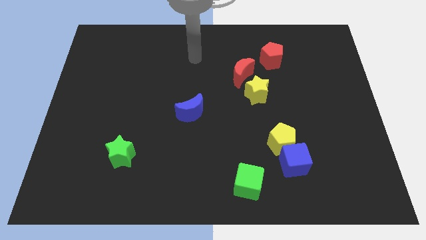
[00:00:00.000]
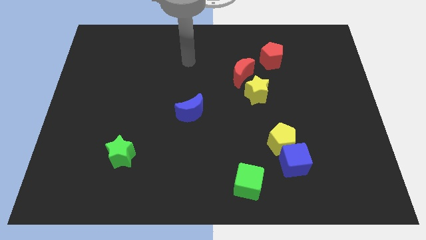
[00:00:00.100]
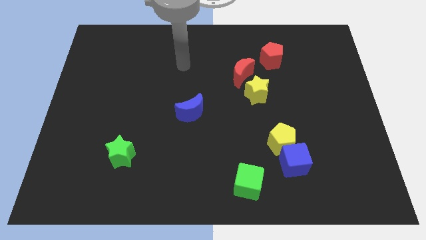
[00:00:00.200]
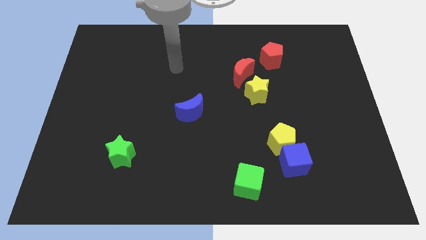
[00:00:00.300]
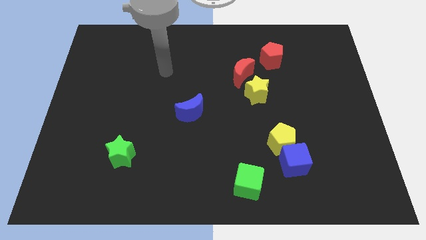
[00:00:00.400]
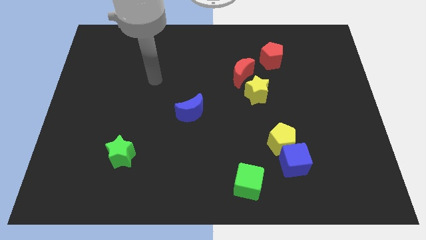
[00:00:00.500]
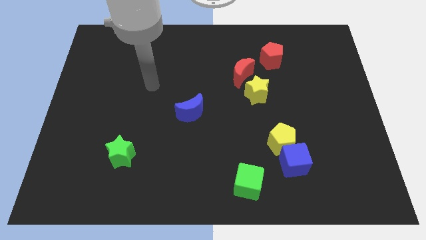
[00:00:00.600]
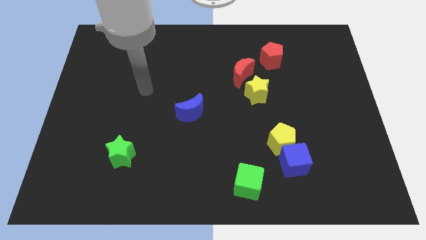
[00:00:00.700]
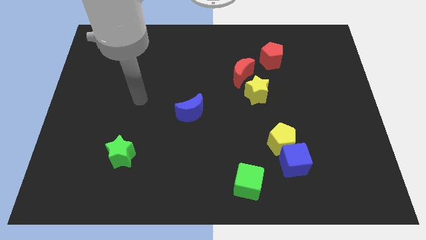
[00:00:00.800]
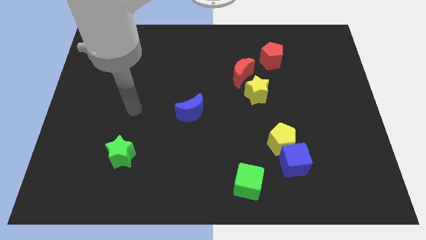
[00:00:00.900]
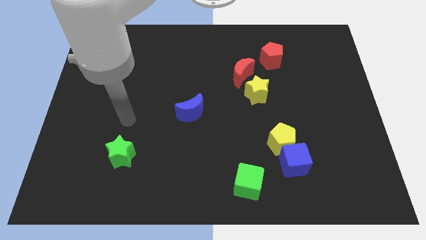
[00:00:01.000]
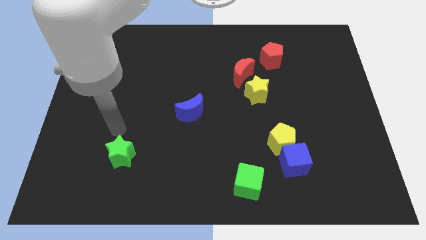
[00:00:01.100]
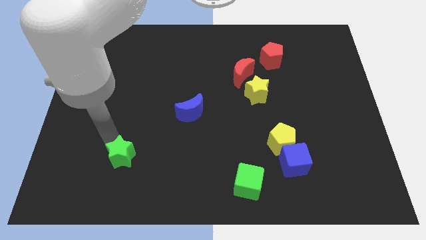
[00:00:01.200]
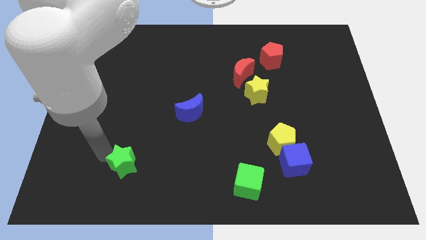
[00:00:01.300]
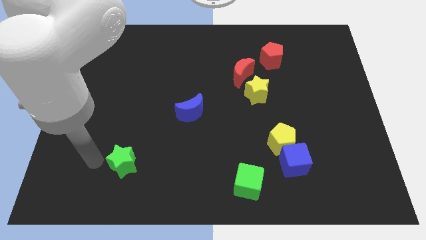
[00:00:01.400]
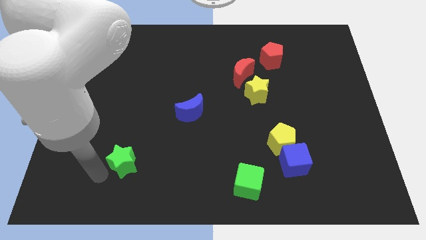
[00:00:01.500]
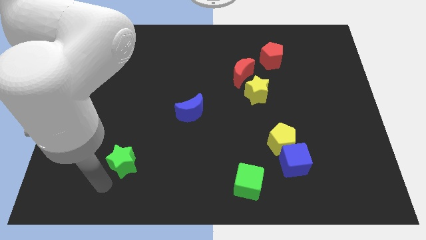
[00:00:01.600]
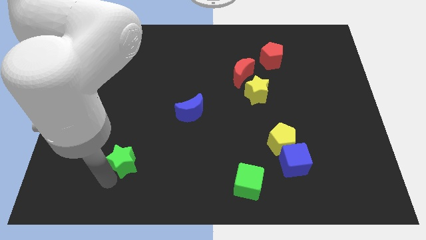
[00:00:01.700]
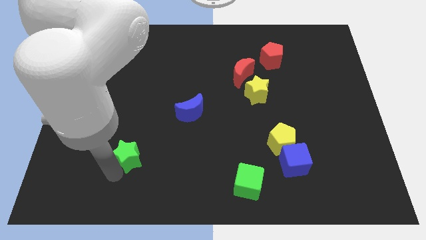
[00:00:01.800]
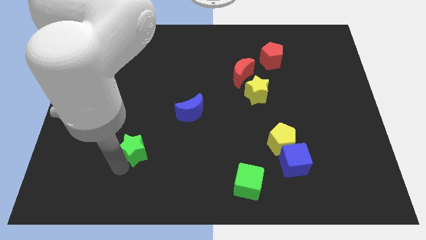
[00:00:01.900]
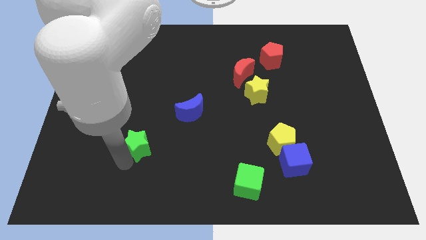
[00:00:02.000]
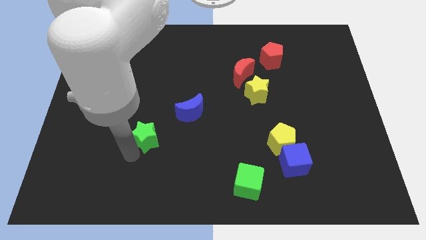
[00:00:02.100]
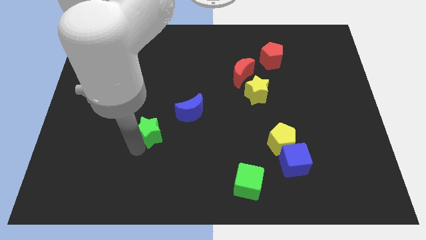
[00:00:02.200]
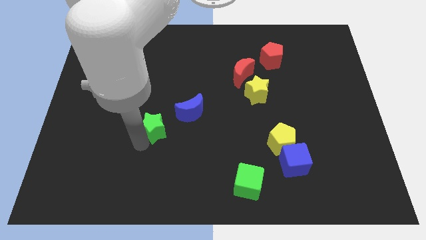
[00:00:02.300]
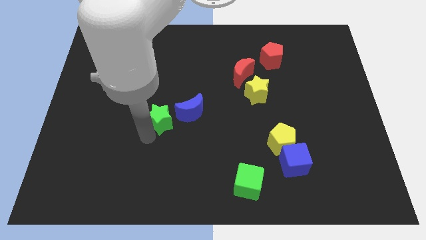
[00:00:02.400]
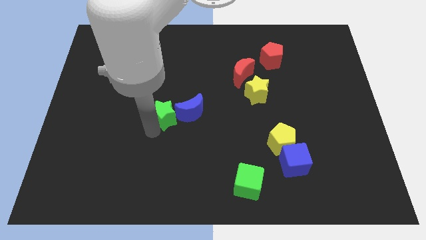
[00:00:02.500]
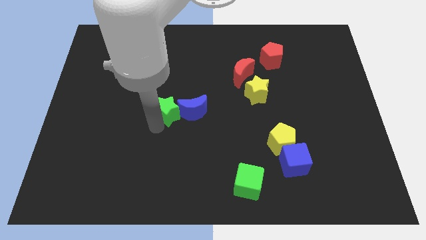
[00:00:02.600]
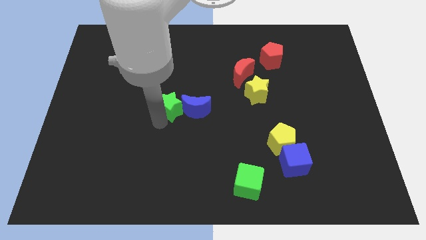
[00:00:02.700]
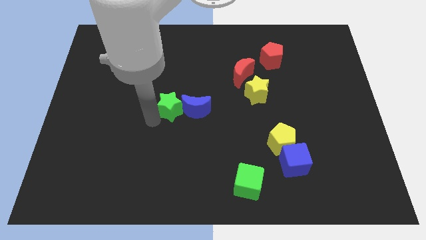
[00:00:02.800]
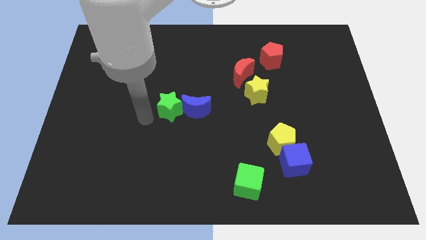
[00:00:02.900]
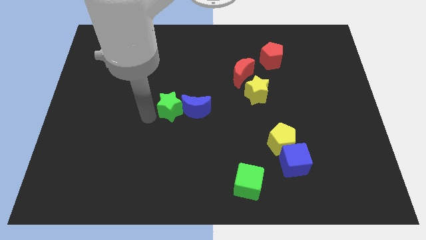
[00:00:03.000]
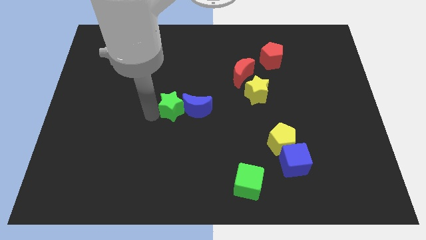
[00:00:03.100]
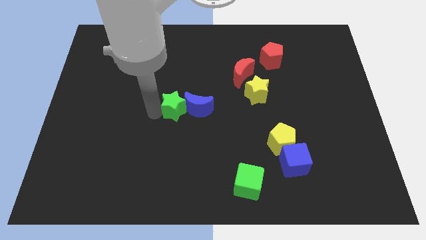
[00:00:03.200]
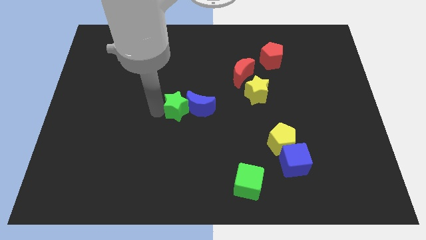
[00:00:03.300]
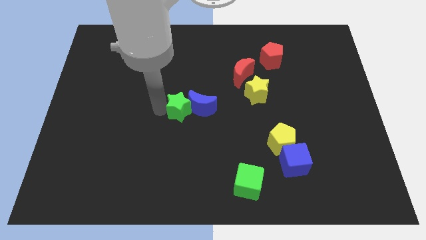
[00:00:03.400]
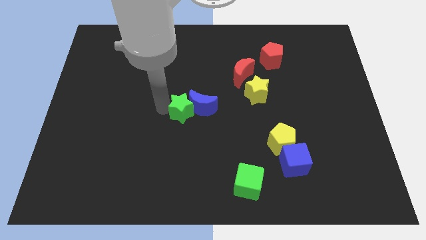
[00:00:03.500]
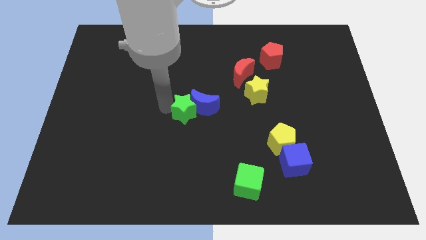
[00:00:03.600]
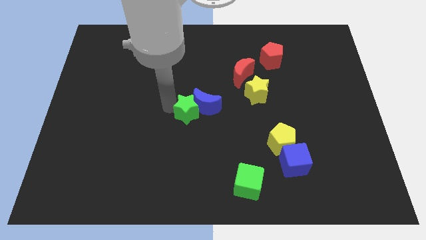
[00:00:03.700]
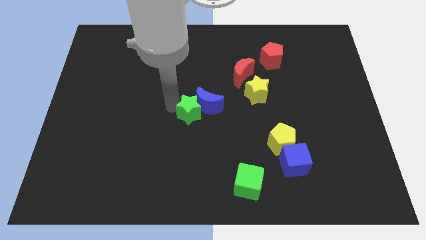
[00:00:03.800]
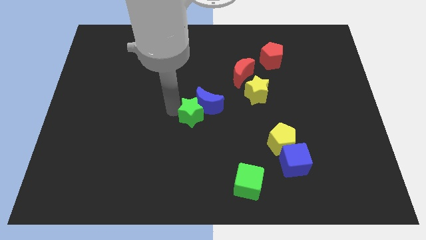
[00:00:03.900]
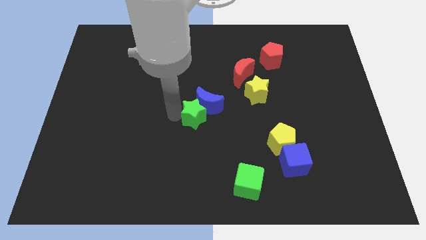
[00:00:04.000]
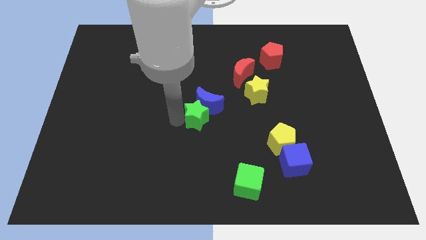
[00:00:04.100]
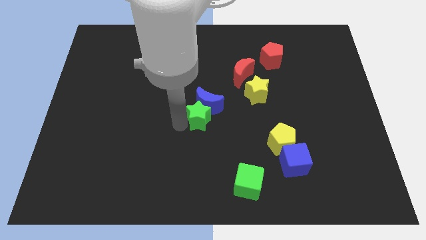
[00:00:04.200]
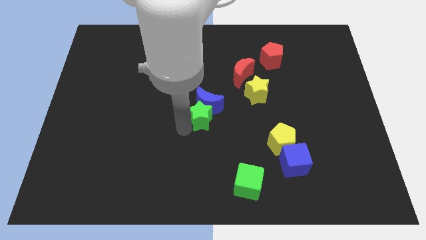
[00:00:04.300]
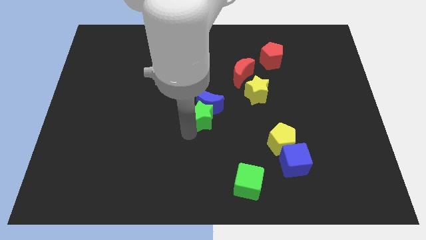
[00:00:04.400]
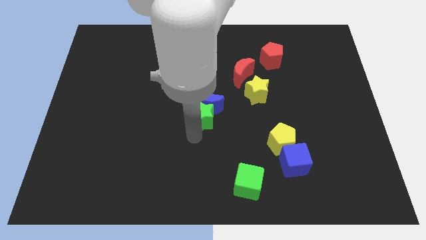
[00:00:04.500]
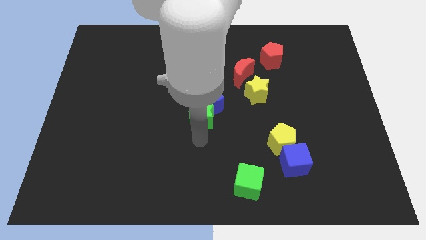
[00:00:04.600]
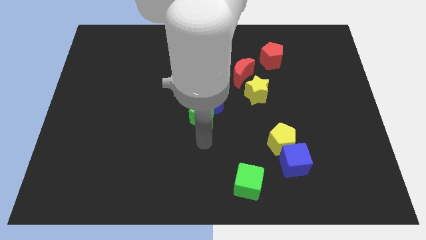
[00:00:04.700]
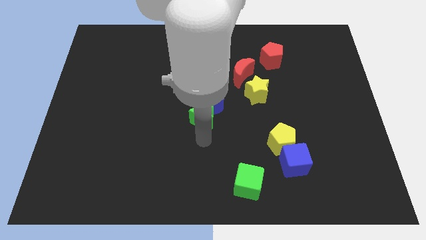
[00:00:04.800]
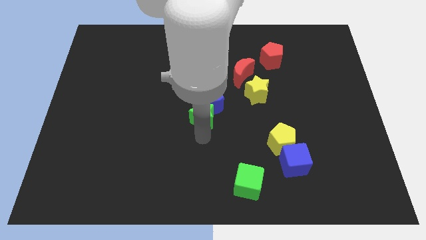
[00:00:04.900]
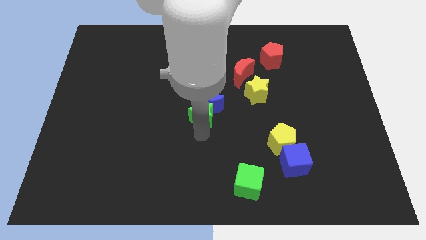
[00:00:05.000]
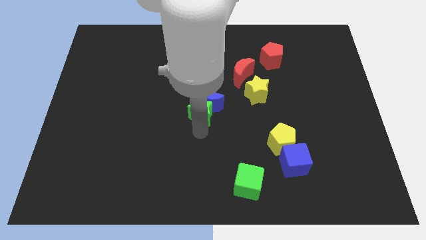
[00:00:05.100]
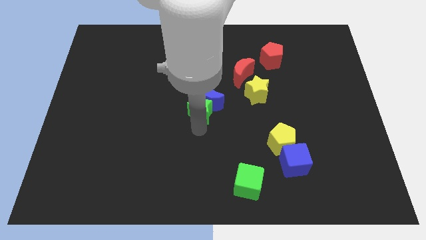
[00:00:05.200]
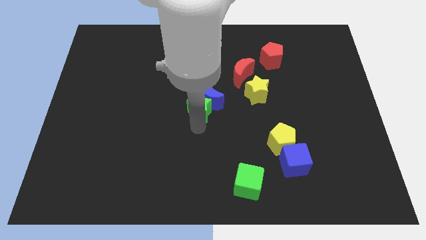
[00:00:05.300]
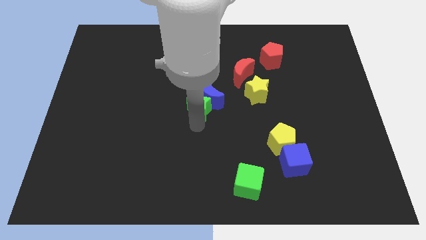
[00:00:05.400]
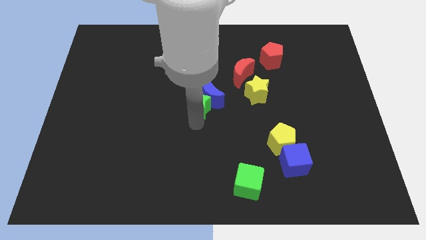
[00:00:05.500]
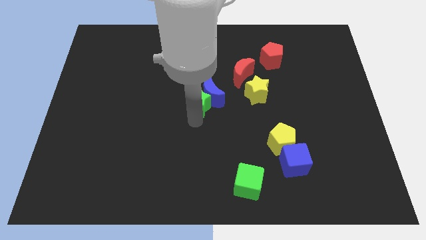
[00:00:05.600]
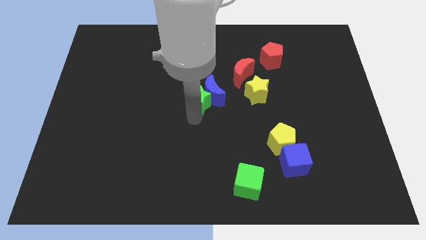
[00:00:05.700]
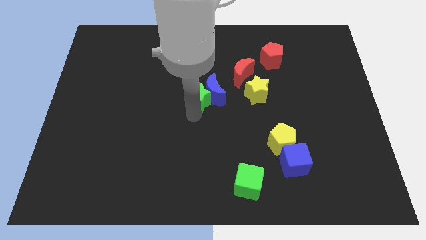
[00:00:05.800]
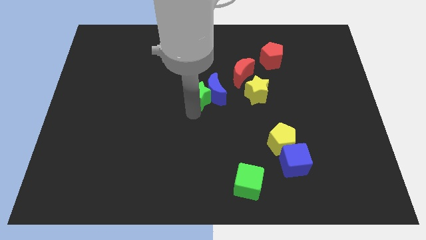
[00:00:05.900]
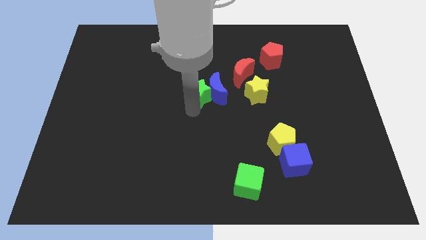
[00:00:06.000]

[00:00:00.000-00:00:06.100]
push the green star to the bottom left side of the red moon

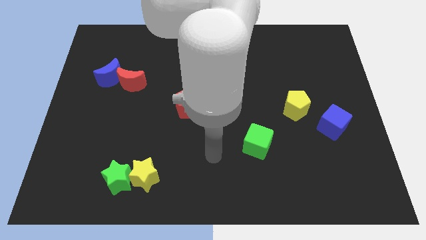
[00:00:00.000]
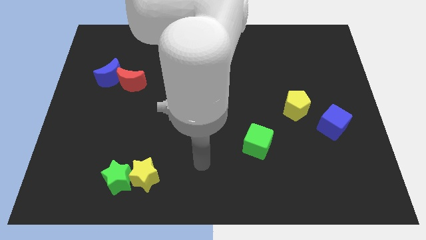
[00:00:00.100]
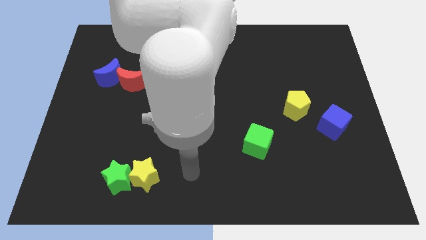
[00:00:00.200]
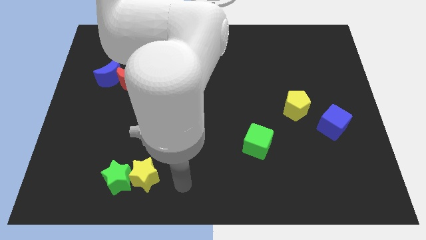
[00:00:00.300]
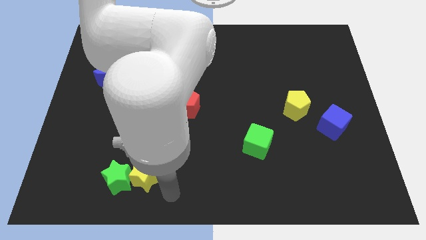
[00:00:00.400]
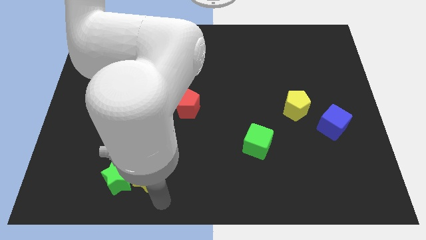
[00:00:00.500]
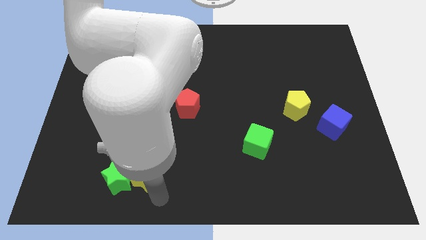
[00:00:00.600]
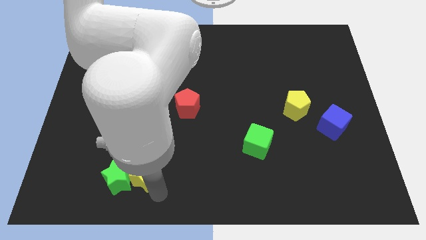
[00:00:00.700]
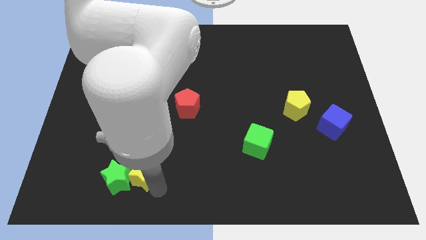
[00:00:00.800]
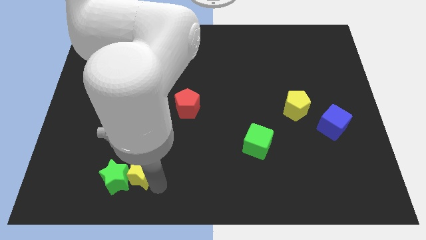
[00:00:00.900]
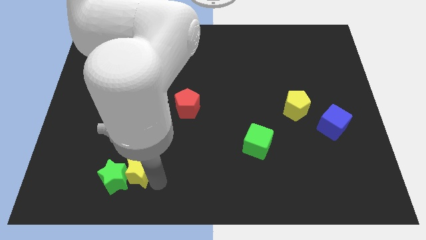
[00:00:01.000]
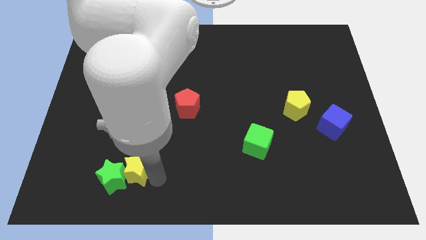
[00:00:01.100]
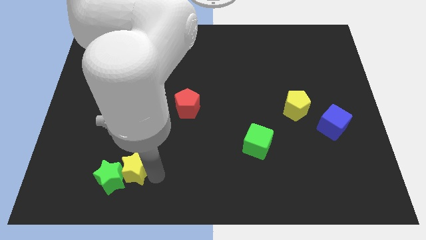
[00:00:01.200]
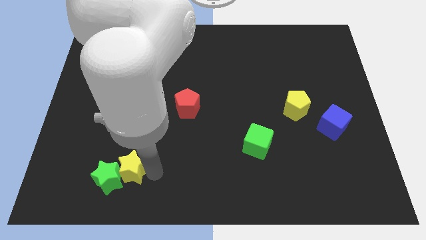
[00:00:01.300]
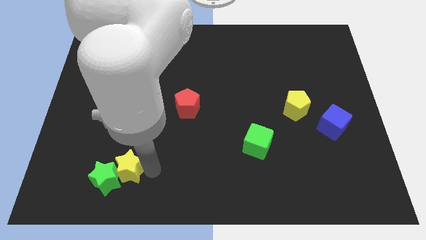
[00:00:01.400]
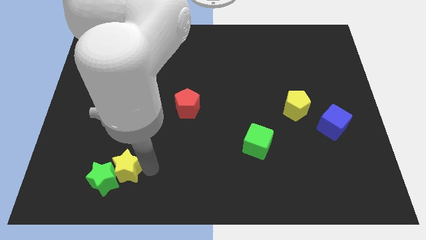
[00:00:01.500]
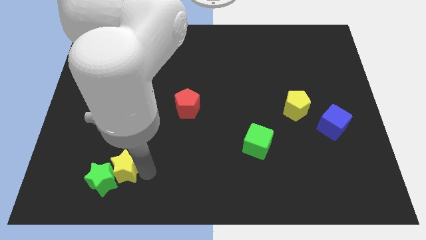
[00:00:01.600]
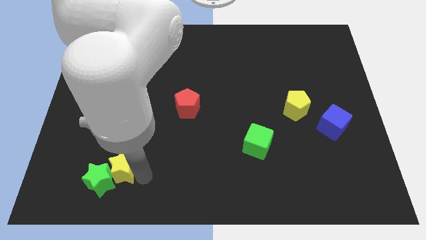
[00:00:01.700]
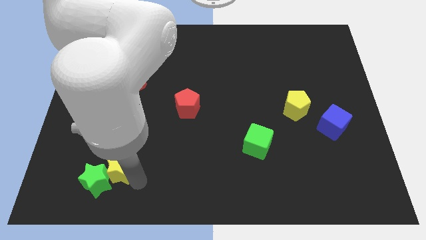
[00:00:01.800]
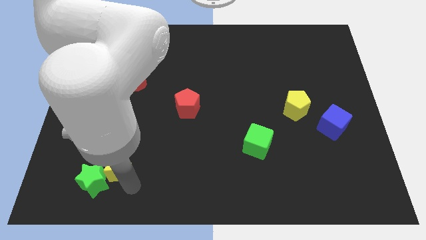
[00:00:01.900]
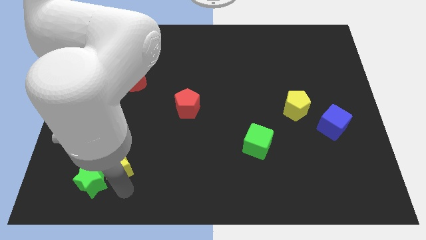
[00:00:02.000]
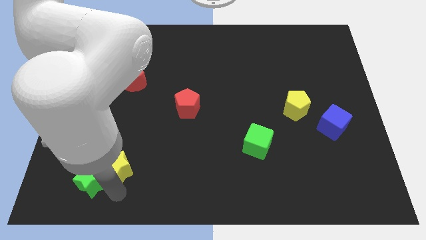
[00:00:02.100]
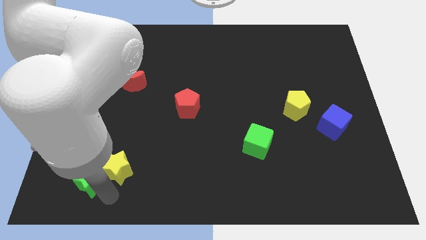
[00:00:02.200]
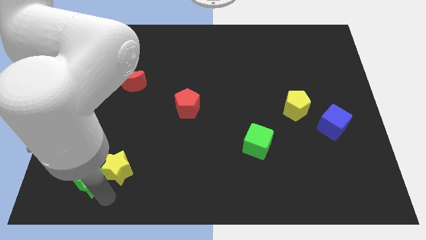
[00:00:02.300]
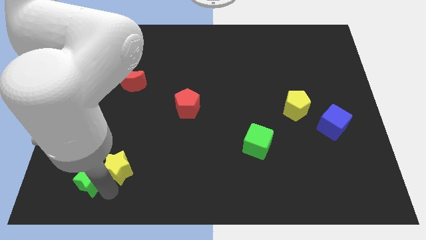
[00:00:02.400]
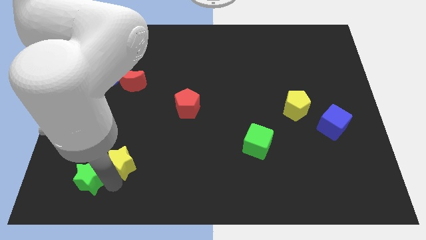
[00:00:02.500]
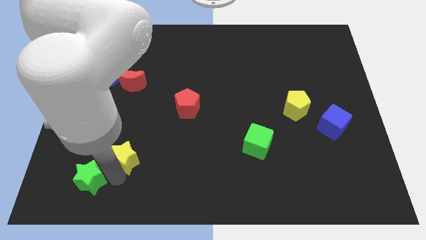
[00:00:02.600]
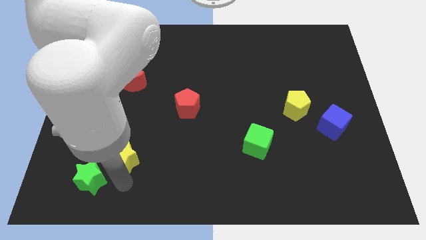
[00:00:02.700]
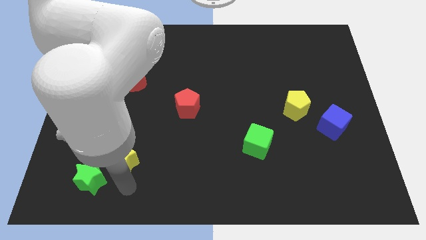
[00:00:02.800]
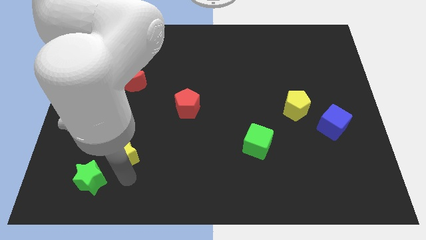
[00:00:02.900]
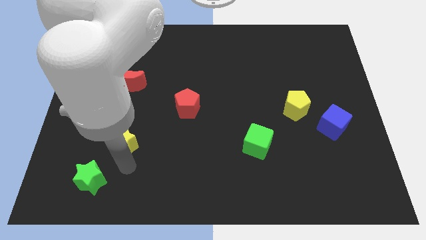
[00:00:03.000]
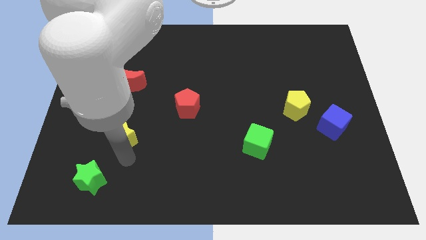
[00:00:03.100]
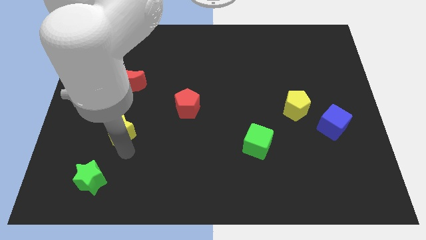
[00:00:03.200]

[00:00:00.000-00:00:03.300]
move the yellow star below the red moon
